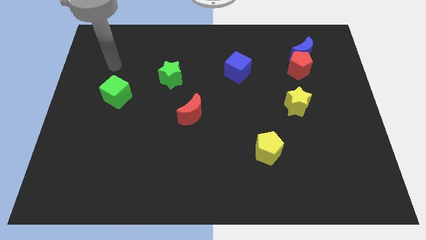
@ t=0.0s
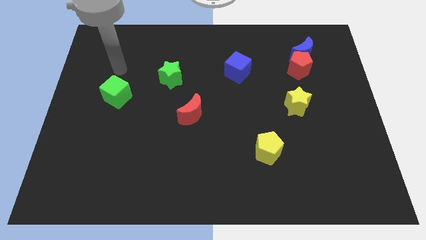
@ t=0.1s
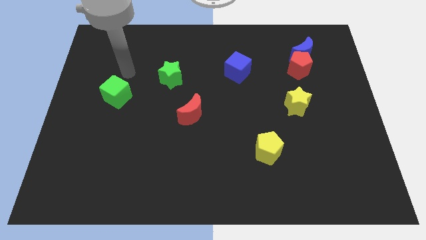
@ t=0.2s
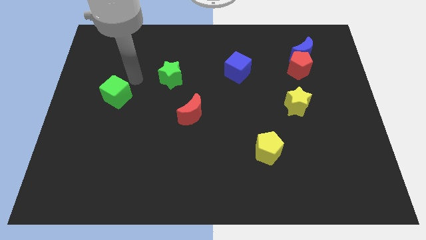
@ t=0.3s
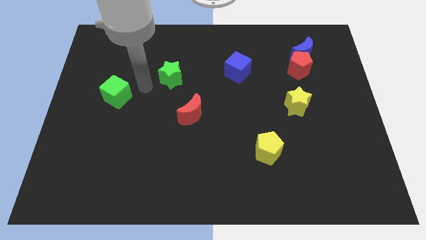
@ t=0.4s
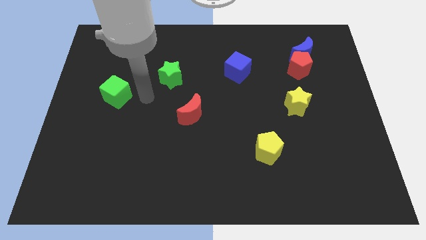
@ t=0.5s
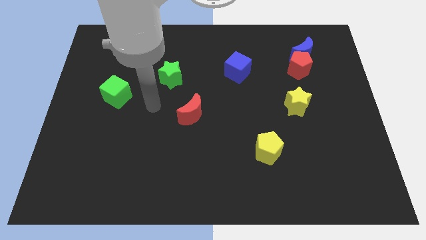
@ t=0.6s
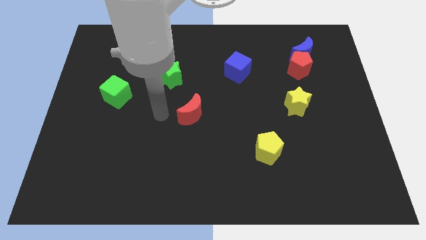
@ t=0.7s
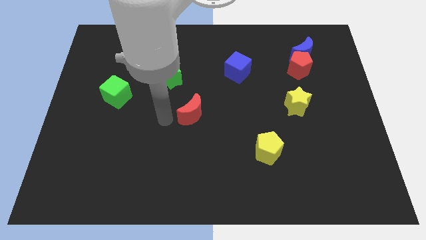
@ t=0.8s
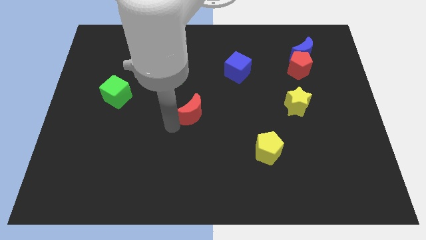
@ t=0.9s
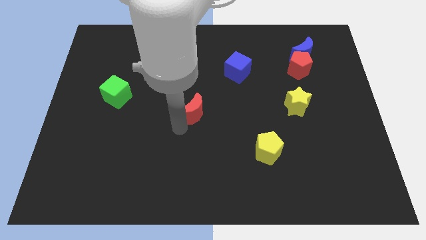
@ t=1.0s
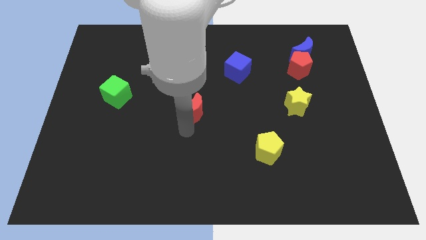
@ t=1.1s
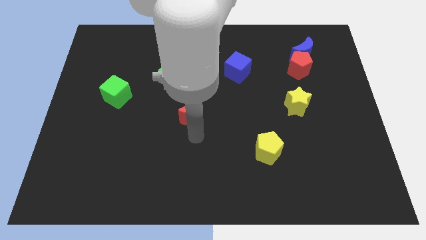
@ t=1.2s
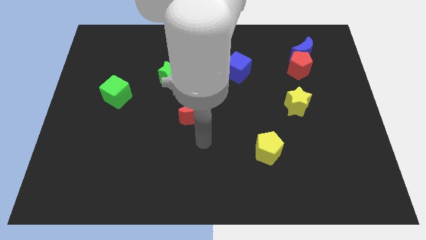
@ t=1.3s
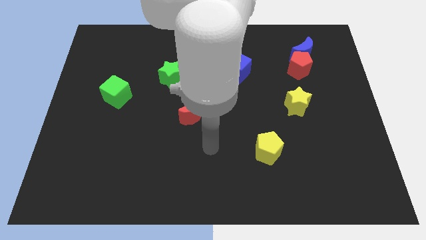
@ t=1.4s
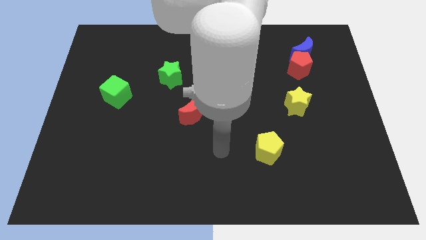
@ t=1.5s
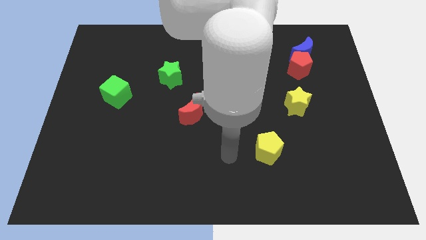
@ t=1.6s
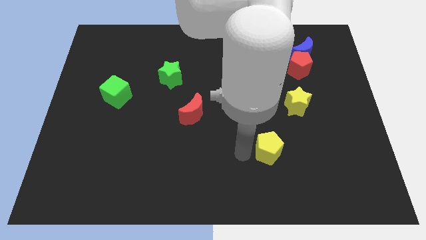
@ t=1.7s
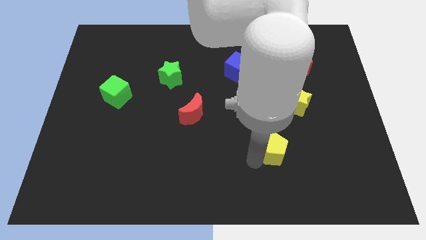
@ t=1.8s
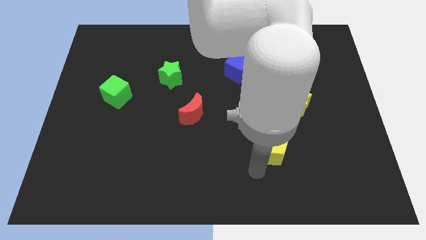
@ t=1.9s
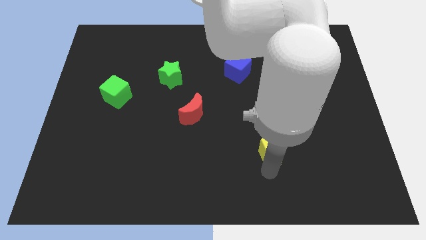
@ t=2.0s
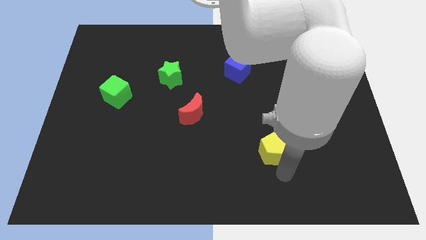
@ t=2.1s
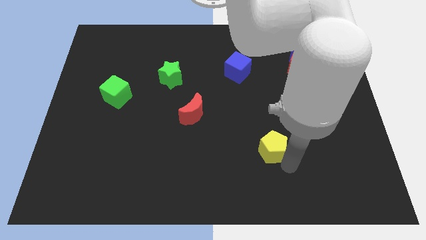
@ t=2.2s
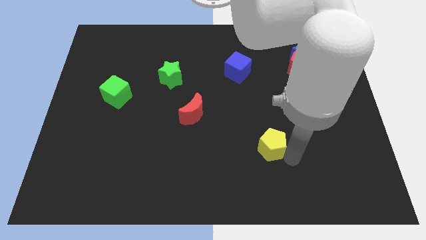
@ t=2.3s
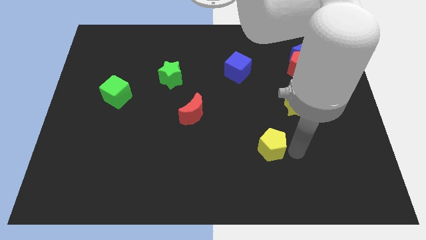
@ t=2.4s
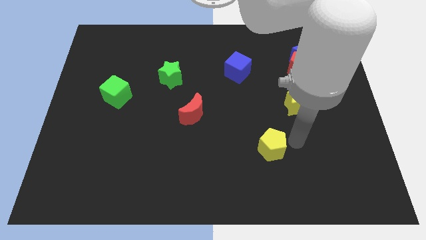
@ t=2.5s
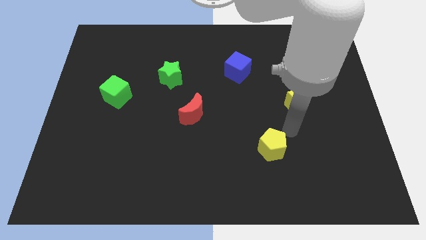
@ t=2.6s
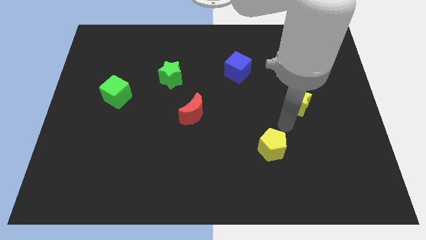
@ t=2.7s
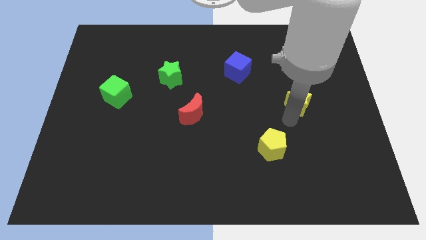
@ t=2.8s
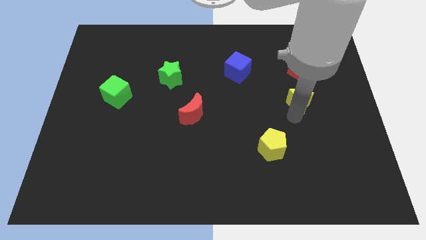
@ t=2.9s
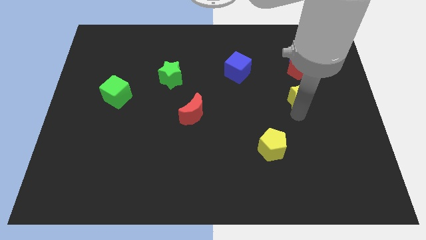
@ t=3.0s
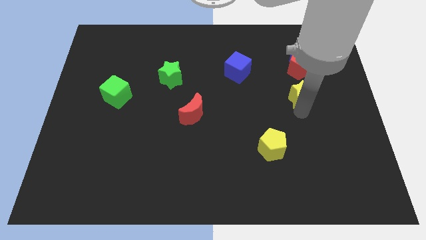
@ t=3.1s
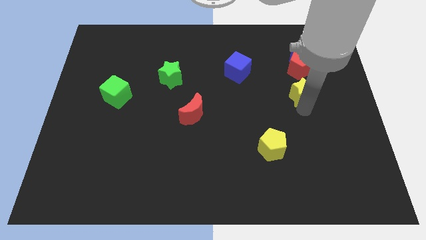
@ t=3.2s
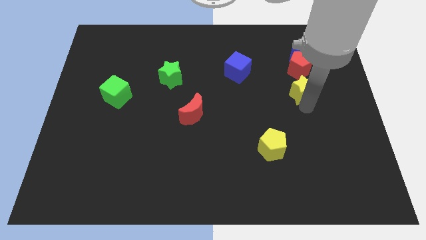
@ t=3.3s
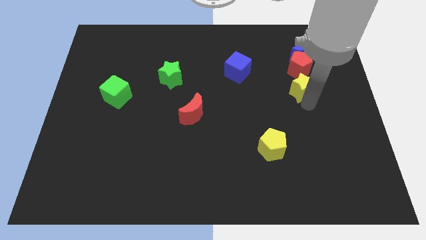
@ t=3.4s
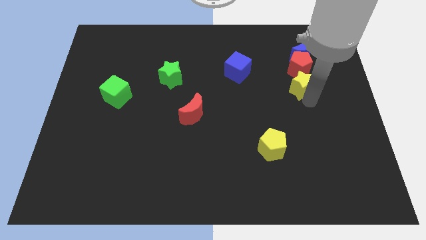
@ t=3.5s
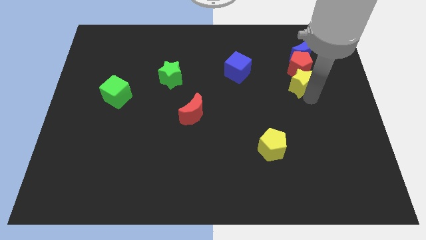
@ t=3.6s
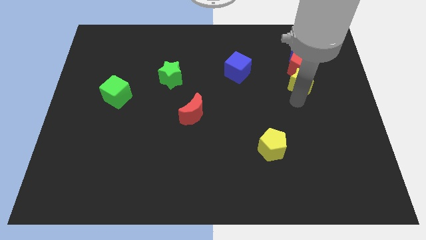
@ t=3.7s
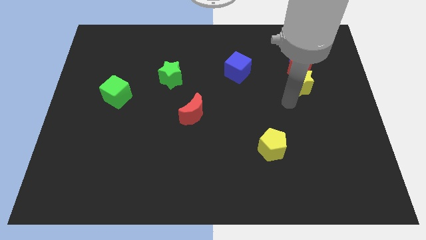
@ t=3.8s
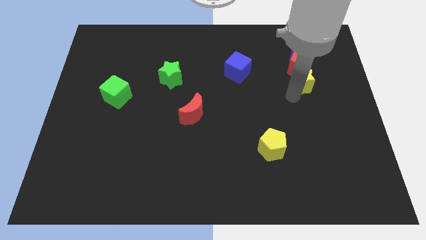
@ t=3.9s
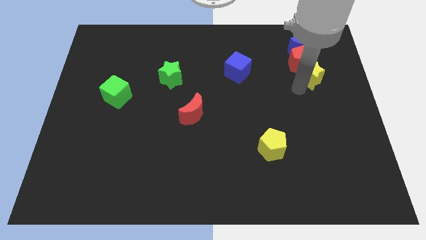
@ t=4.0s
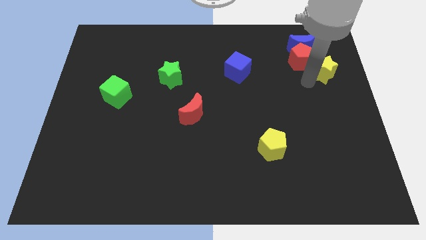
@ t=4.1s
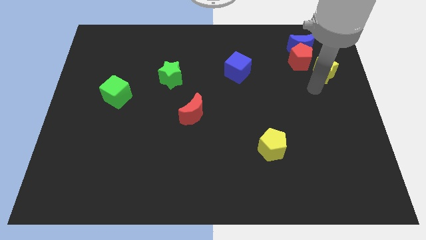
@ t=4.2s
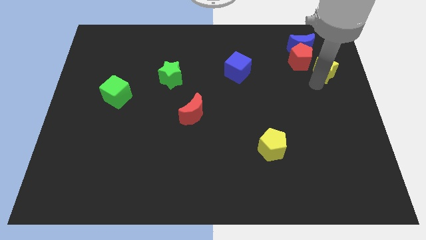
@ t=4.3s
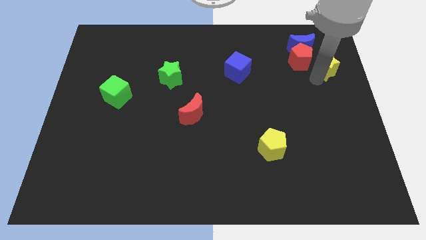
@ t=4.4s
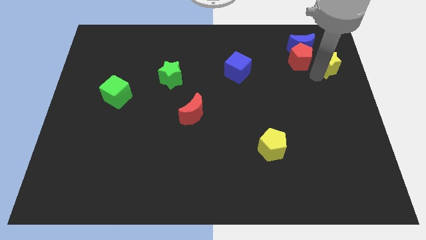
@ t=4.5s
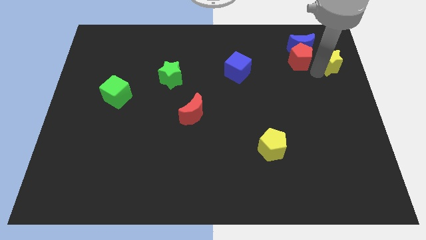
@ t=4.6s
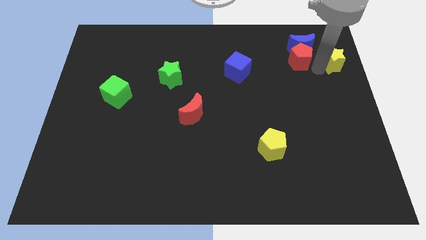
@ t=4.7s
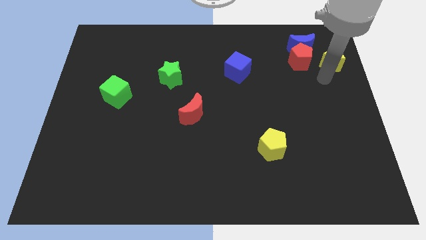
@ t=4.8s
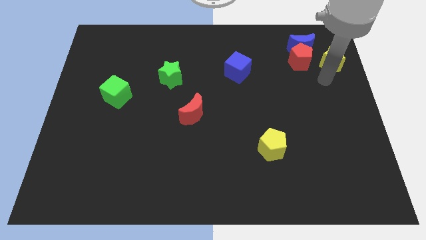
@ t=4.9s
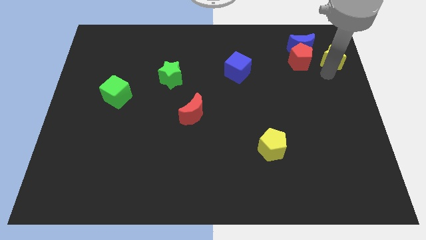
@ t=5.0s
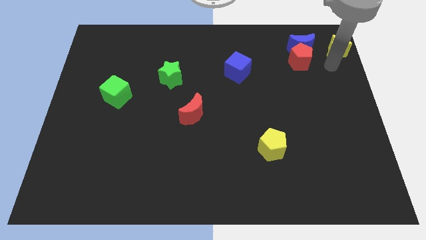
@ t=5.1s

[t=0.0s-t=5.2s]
put the yellow star to the top right of the board

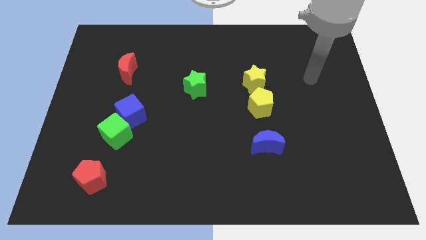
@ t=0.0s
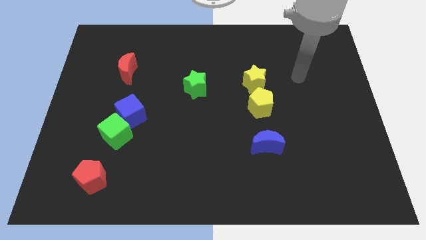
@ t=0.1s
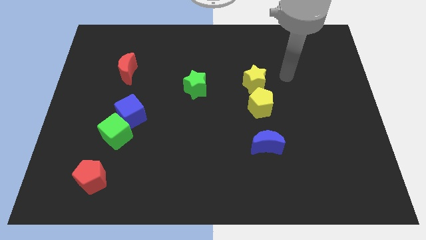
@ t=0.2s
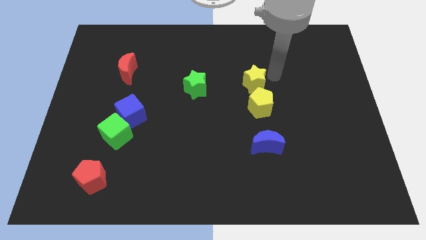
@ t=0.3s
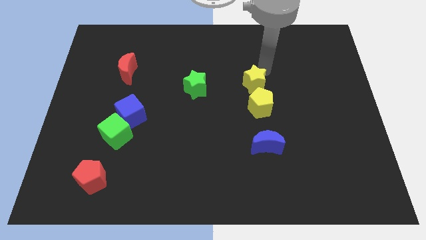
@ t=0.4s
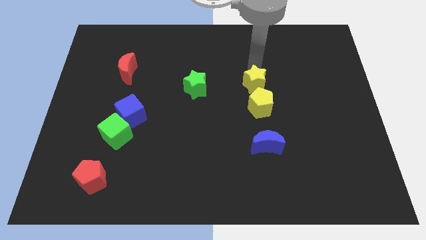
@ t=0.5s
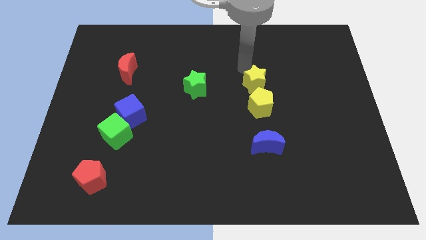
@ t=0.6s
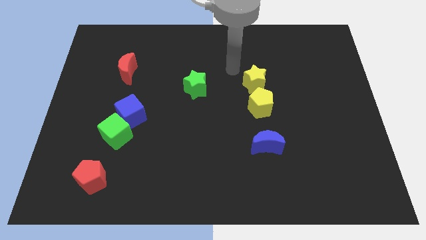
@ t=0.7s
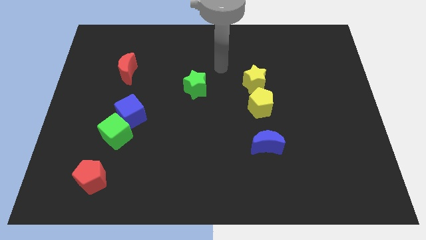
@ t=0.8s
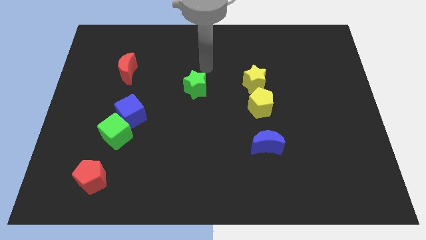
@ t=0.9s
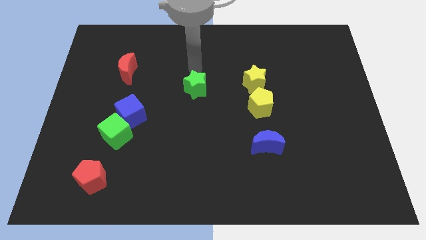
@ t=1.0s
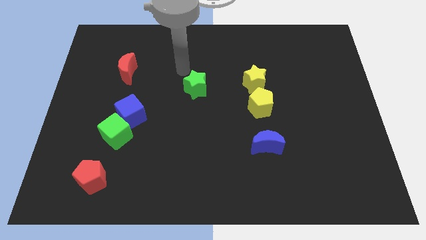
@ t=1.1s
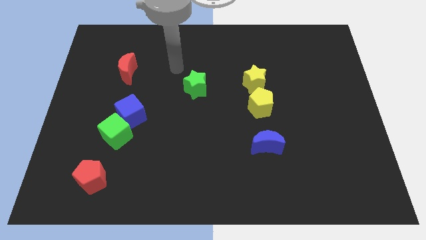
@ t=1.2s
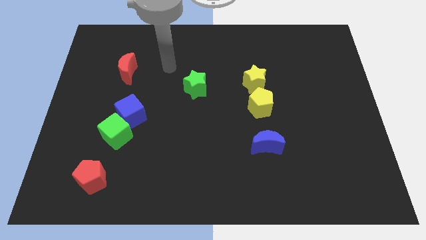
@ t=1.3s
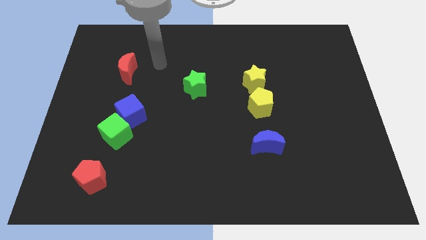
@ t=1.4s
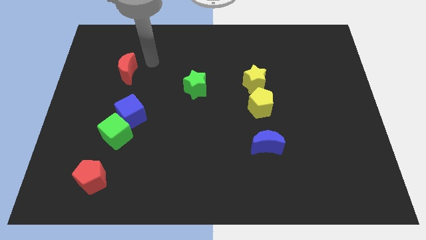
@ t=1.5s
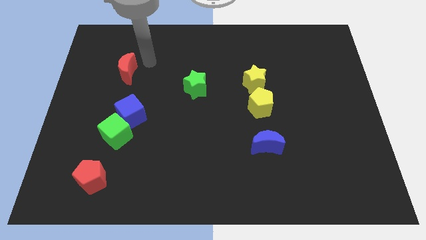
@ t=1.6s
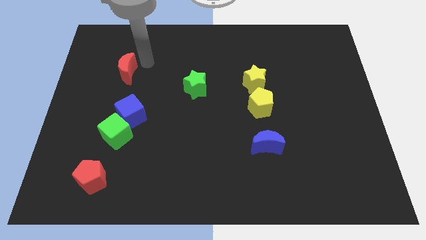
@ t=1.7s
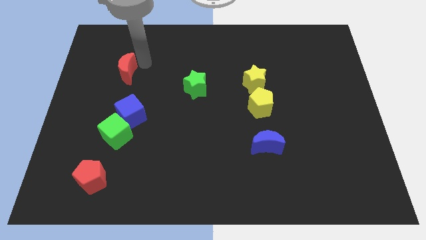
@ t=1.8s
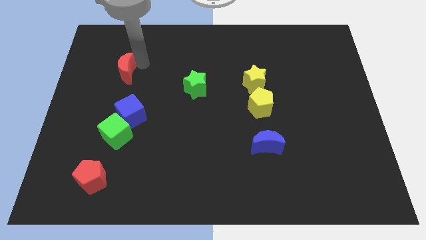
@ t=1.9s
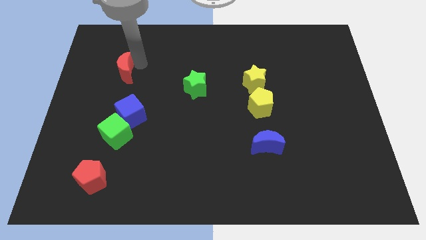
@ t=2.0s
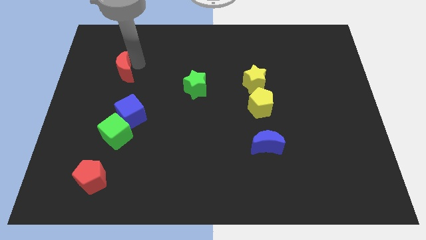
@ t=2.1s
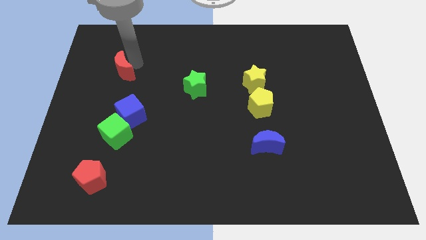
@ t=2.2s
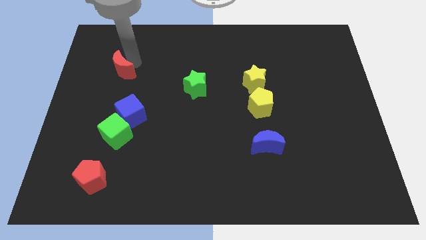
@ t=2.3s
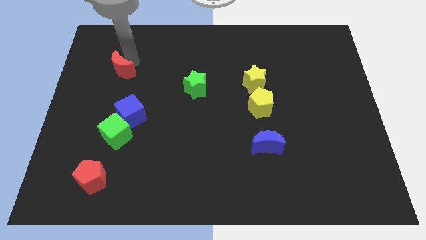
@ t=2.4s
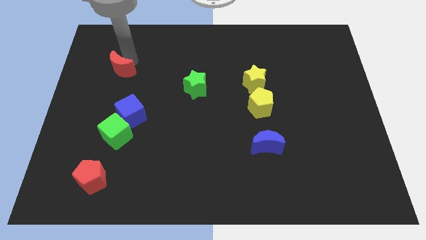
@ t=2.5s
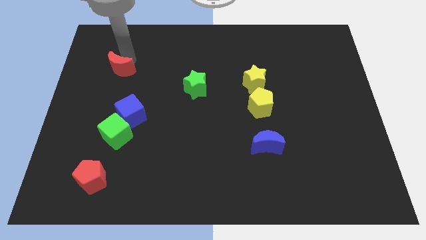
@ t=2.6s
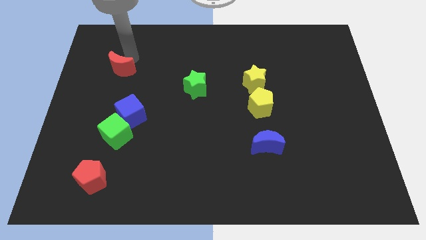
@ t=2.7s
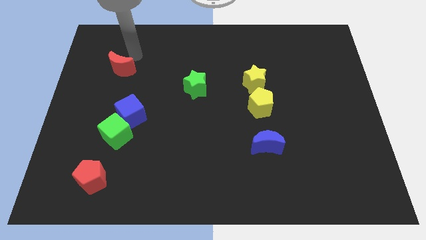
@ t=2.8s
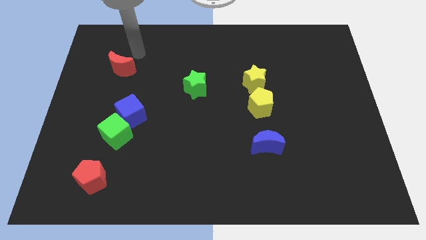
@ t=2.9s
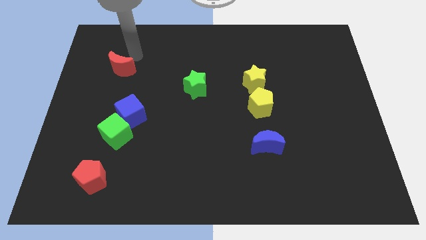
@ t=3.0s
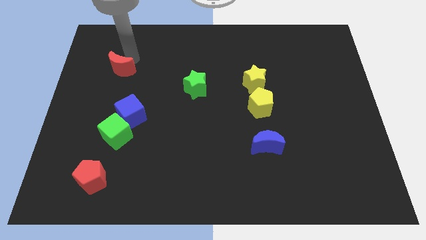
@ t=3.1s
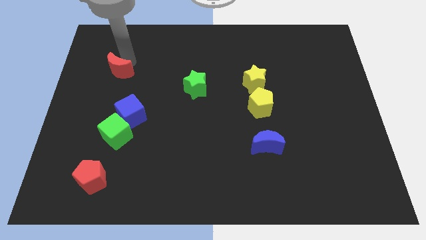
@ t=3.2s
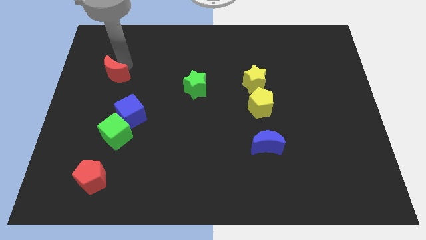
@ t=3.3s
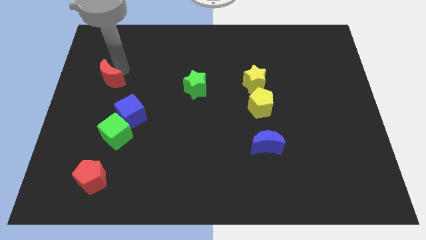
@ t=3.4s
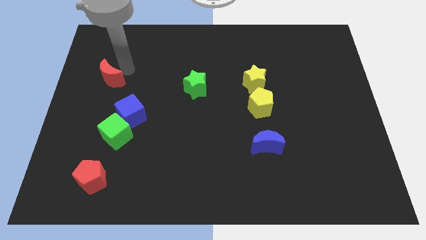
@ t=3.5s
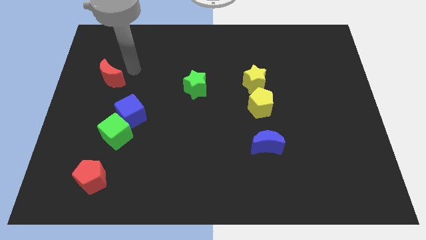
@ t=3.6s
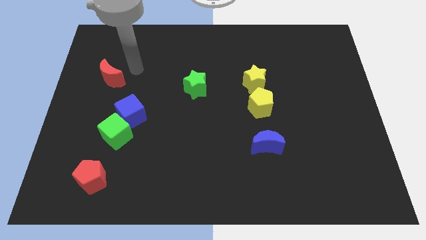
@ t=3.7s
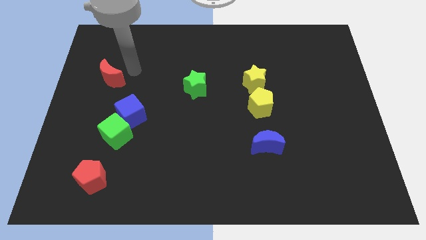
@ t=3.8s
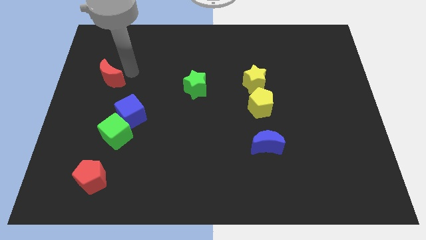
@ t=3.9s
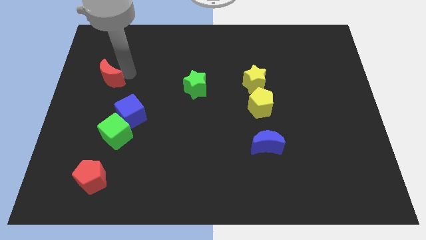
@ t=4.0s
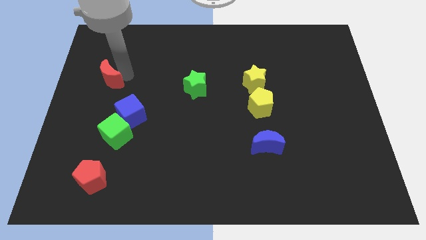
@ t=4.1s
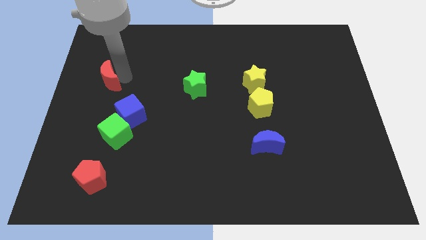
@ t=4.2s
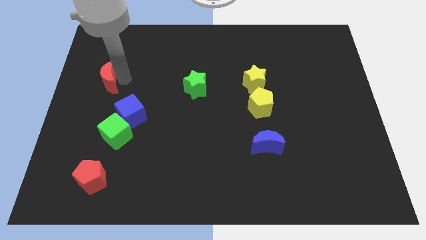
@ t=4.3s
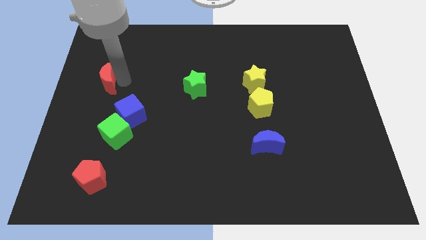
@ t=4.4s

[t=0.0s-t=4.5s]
move the red moon to the left side
